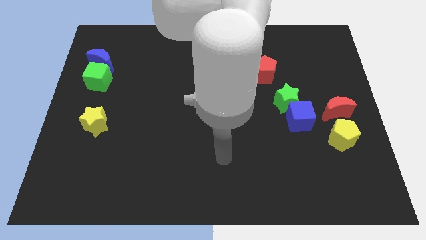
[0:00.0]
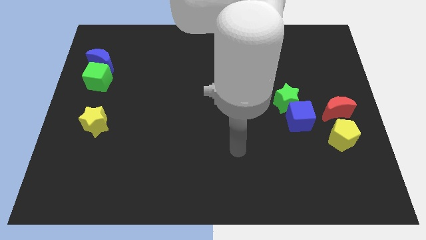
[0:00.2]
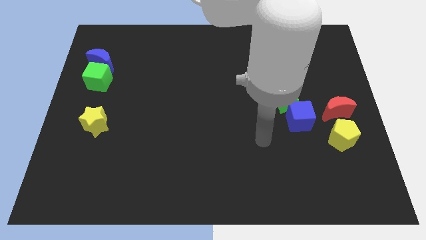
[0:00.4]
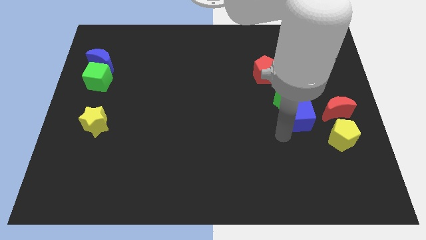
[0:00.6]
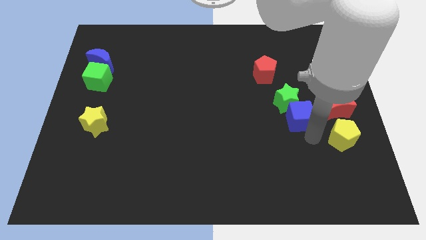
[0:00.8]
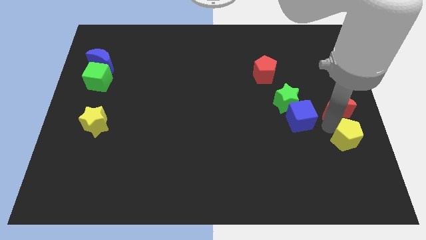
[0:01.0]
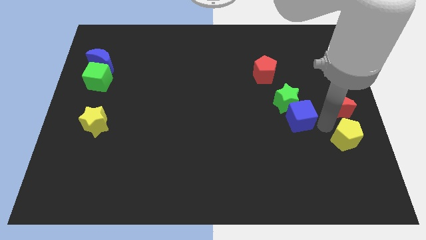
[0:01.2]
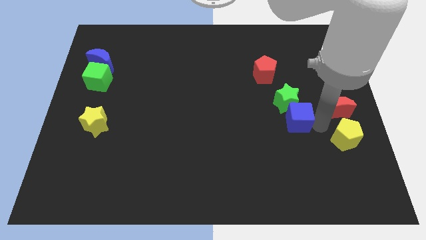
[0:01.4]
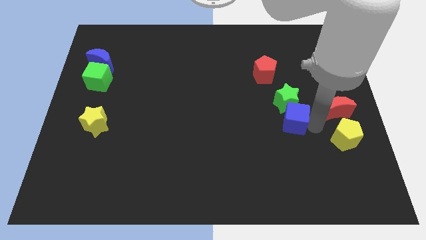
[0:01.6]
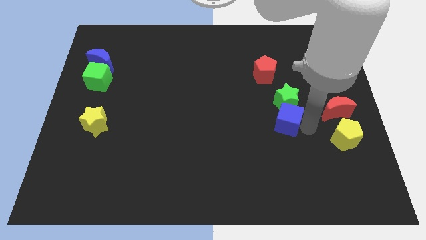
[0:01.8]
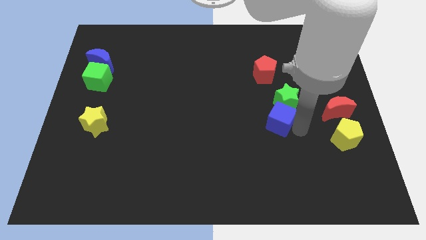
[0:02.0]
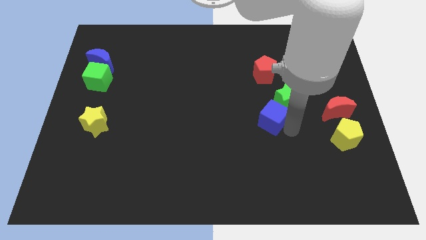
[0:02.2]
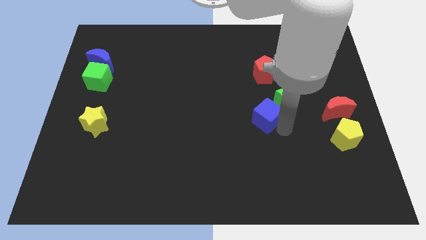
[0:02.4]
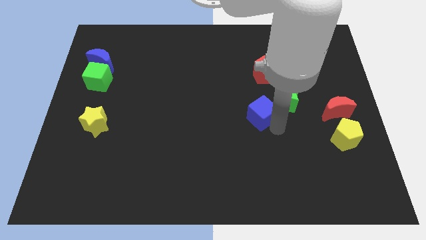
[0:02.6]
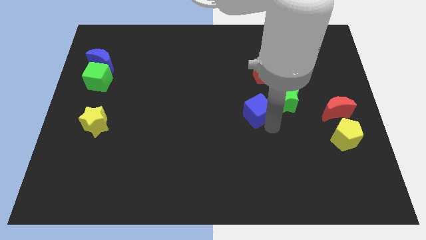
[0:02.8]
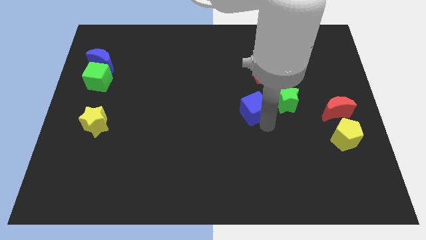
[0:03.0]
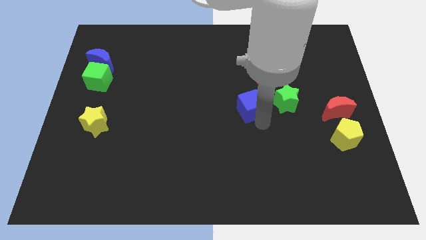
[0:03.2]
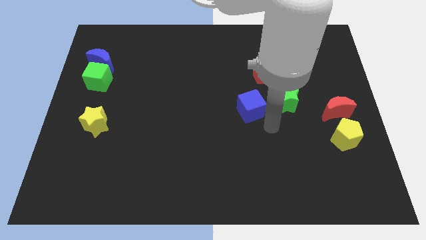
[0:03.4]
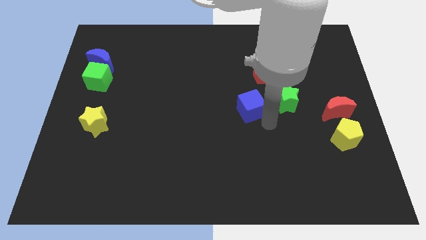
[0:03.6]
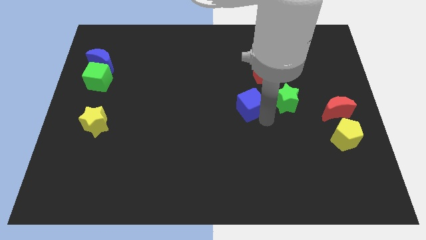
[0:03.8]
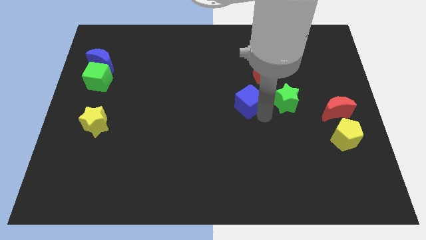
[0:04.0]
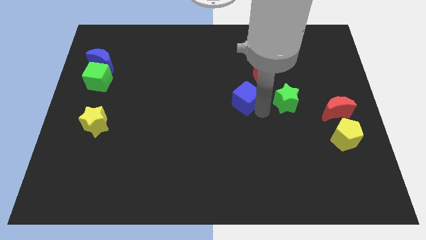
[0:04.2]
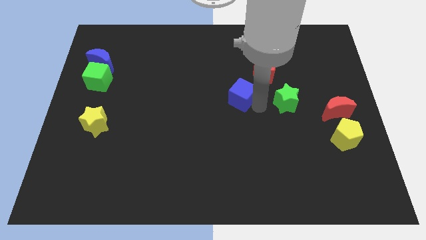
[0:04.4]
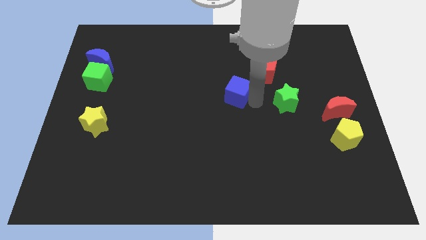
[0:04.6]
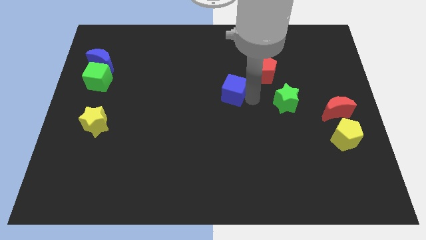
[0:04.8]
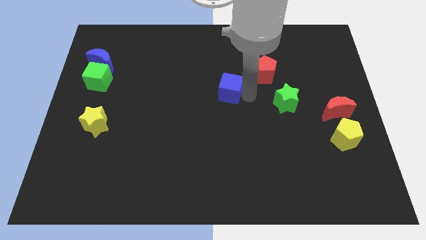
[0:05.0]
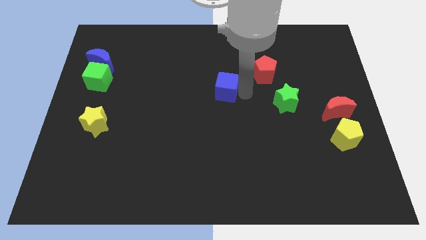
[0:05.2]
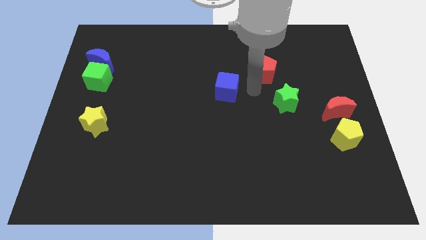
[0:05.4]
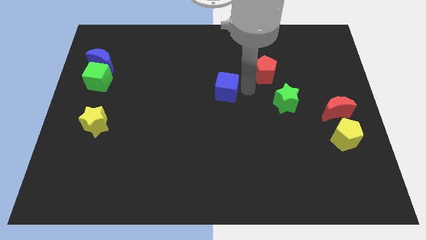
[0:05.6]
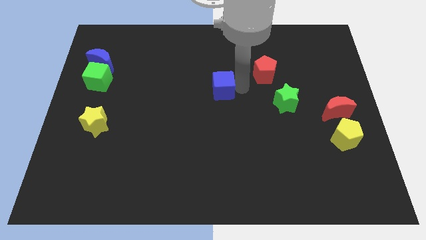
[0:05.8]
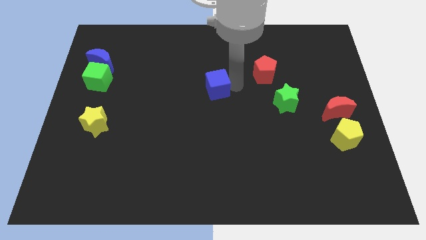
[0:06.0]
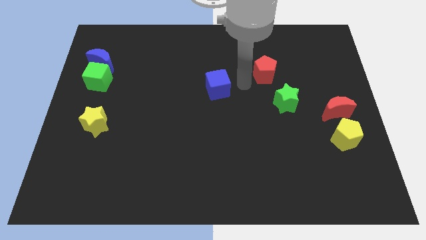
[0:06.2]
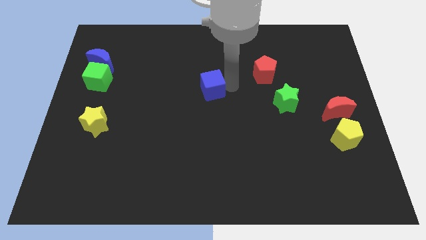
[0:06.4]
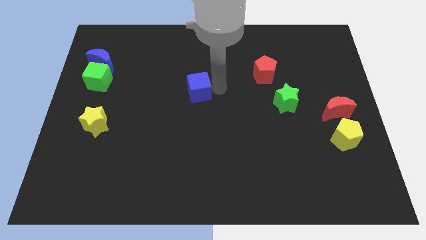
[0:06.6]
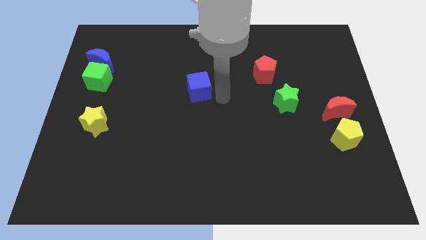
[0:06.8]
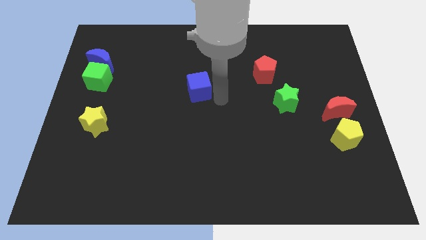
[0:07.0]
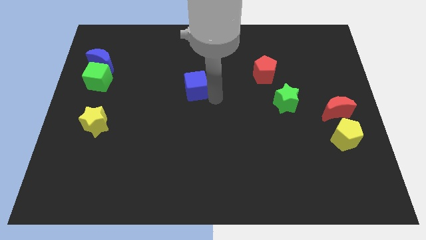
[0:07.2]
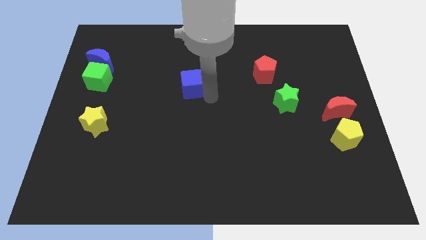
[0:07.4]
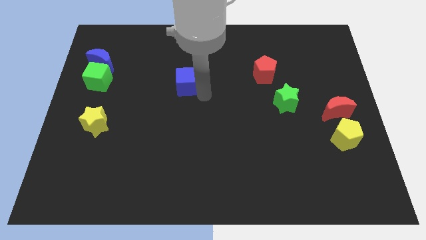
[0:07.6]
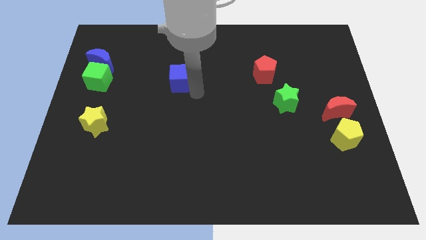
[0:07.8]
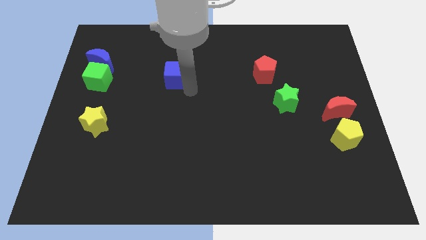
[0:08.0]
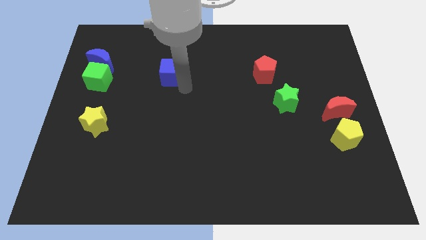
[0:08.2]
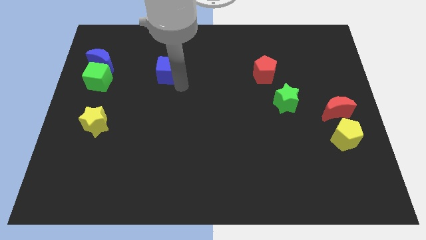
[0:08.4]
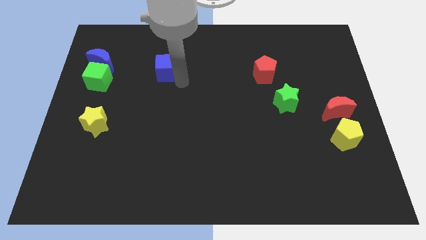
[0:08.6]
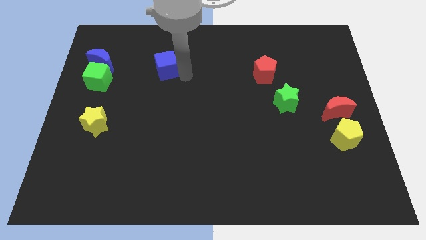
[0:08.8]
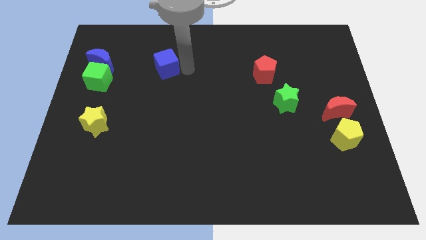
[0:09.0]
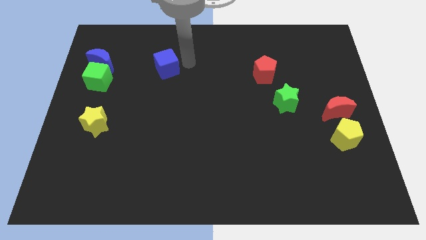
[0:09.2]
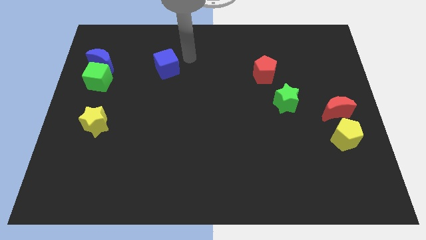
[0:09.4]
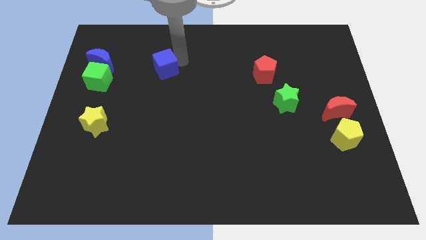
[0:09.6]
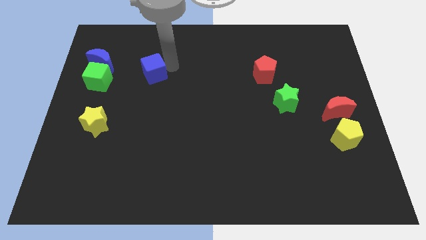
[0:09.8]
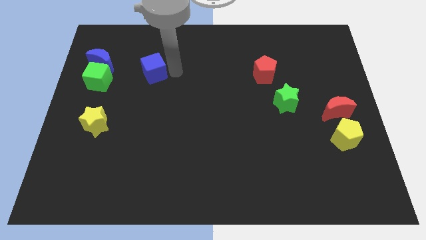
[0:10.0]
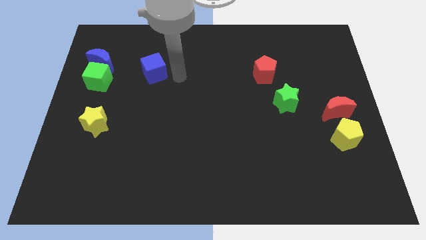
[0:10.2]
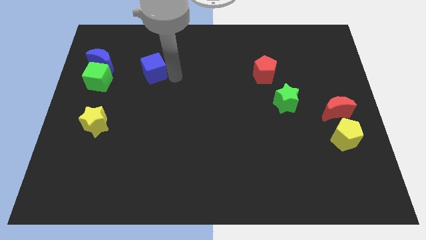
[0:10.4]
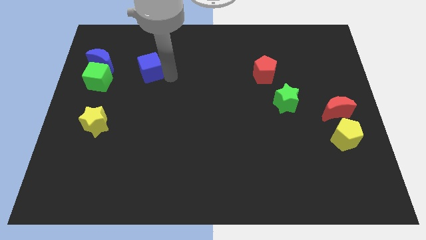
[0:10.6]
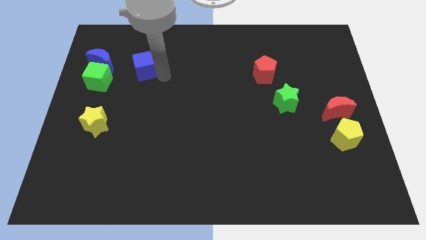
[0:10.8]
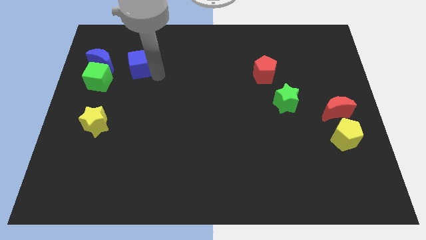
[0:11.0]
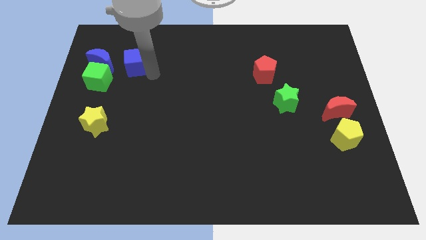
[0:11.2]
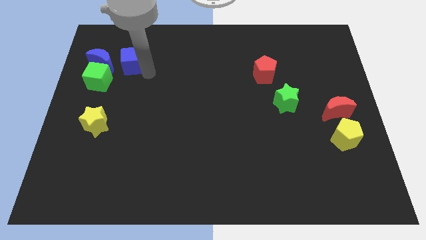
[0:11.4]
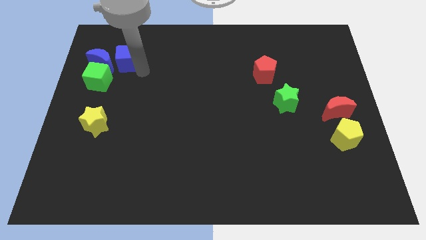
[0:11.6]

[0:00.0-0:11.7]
slide the blue cube next to the blue moon

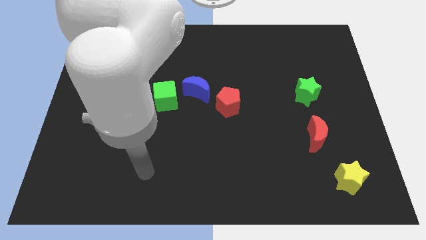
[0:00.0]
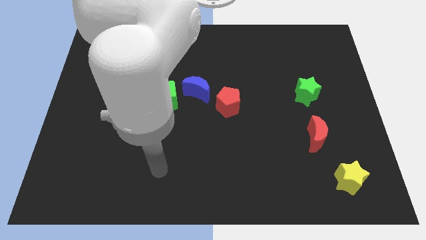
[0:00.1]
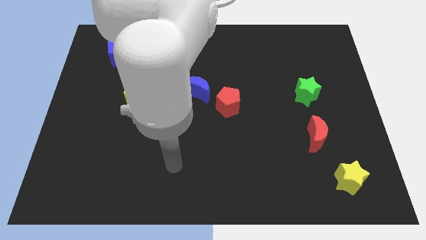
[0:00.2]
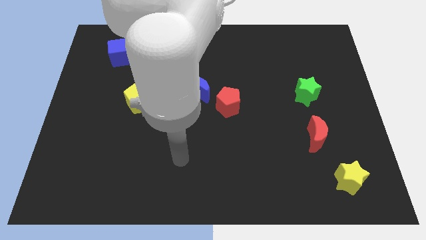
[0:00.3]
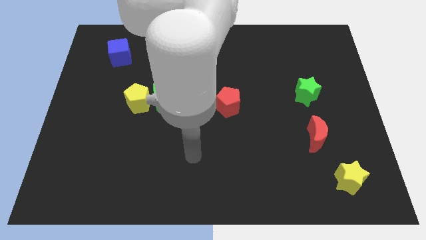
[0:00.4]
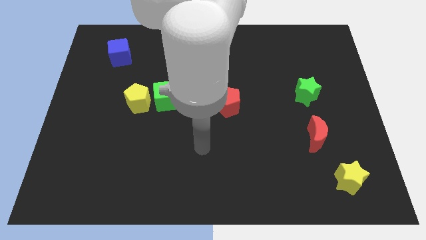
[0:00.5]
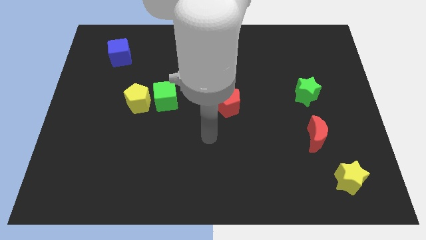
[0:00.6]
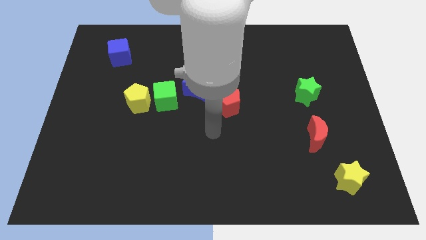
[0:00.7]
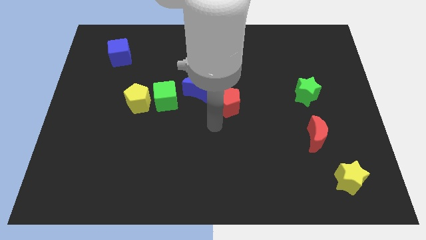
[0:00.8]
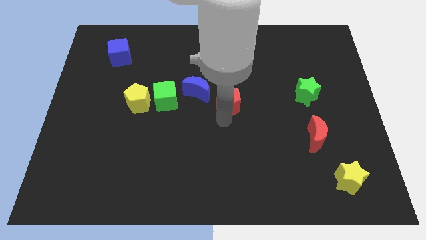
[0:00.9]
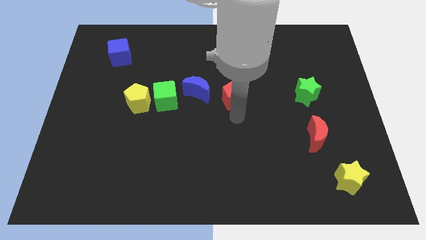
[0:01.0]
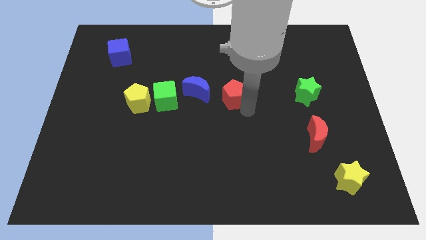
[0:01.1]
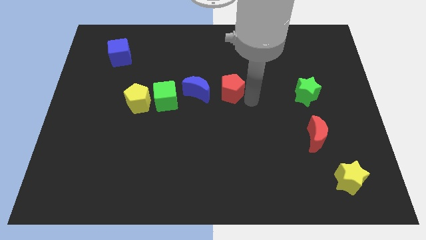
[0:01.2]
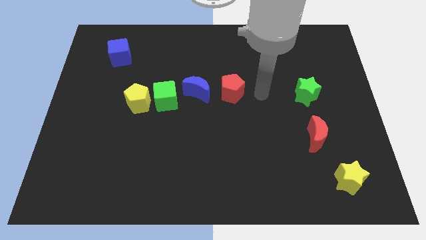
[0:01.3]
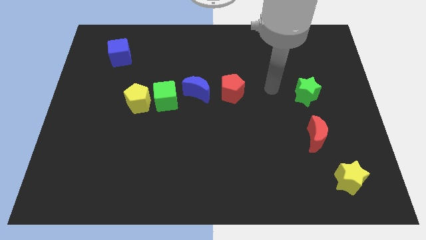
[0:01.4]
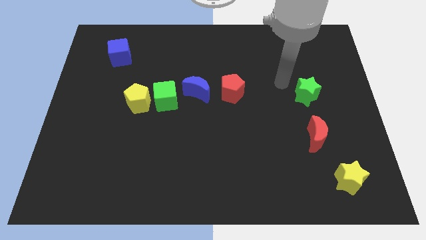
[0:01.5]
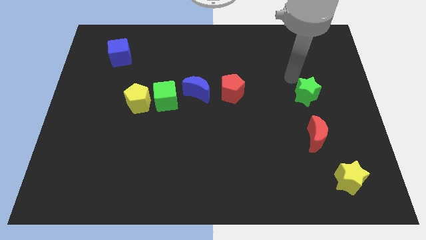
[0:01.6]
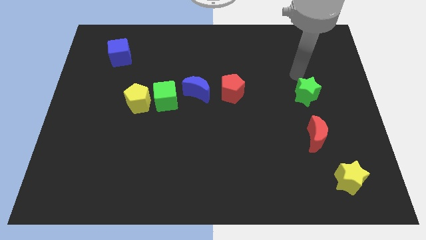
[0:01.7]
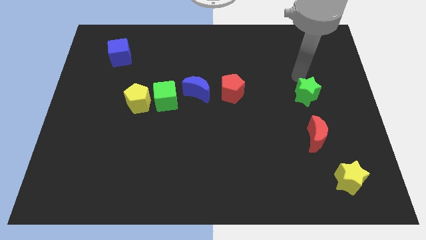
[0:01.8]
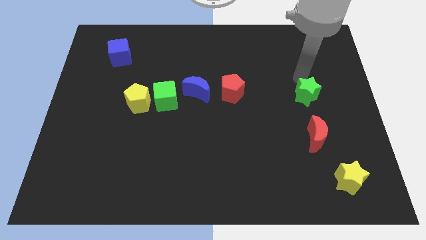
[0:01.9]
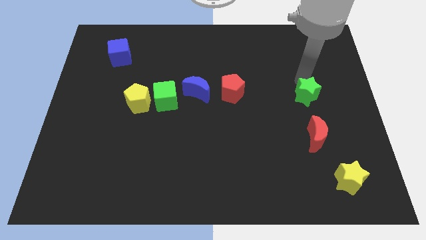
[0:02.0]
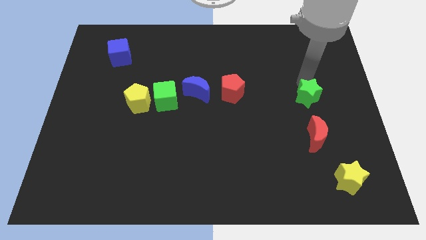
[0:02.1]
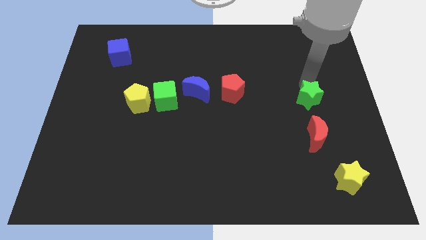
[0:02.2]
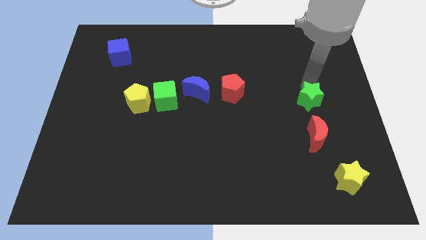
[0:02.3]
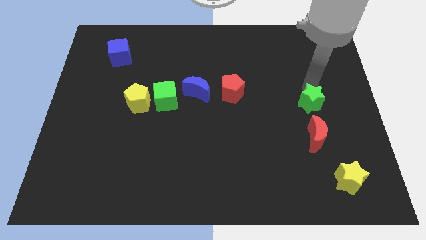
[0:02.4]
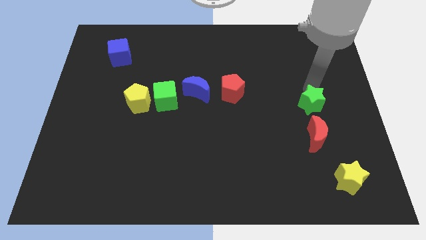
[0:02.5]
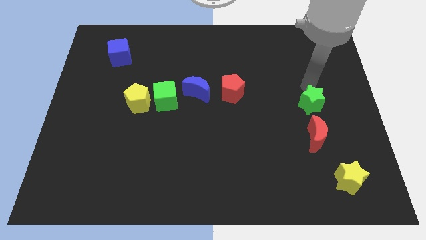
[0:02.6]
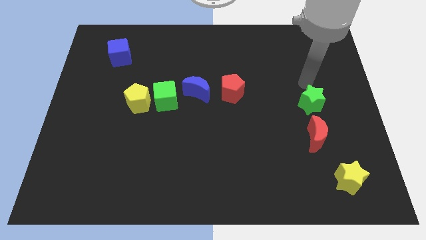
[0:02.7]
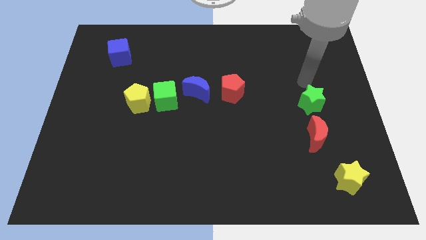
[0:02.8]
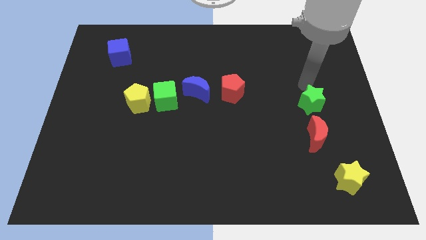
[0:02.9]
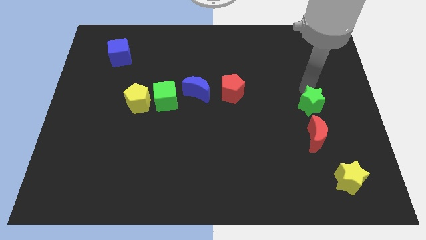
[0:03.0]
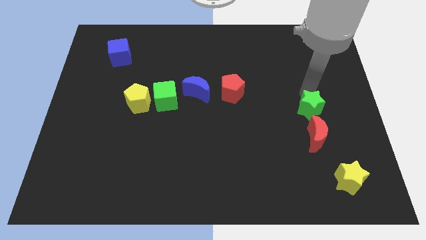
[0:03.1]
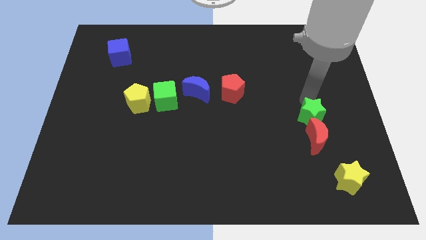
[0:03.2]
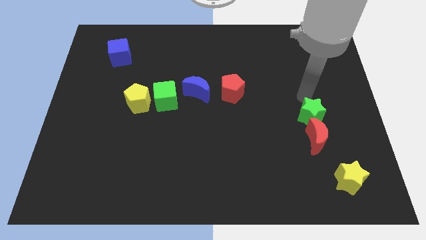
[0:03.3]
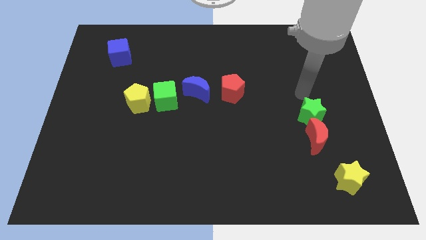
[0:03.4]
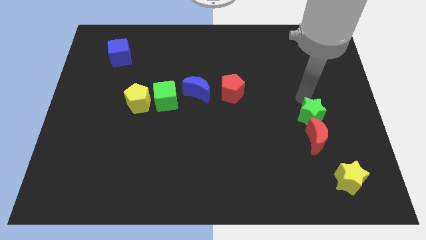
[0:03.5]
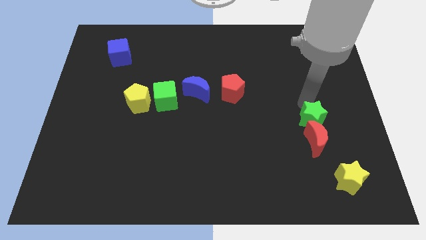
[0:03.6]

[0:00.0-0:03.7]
slide the green star to the red moon
